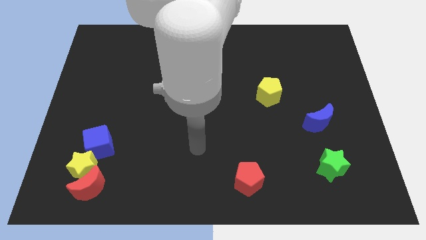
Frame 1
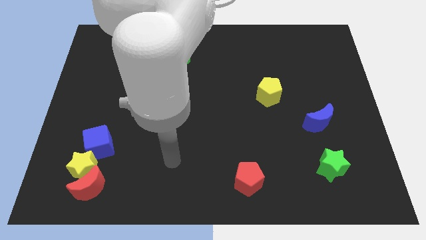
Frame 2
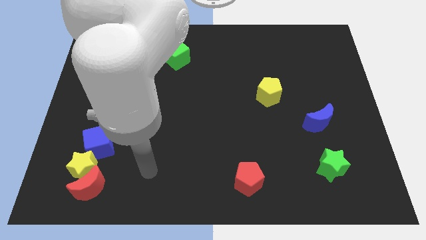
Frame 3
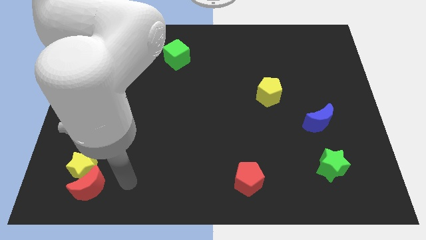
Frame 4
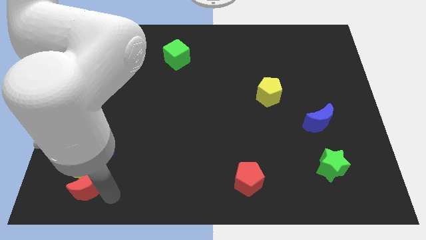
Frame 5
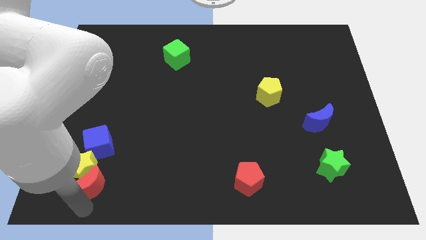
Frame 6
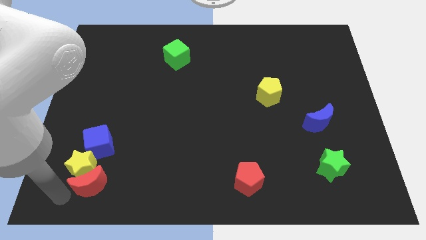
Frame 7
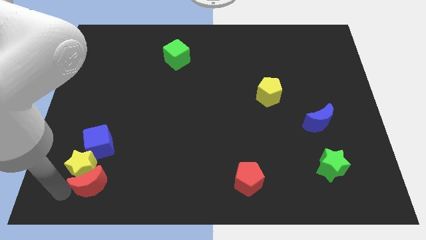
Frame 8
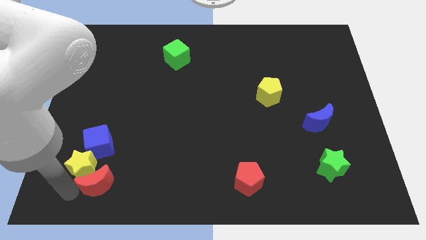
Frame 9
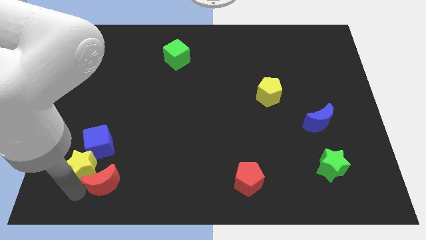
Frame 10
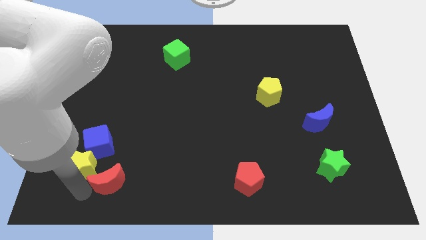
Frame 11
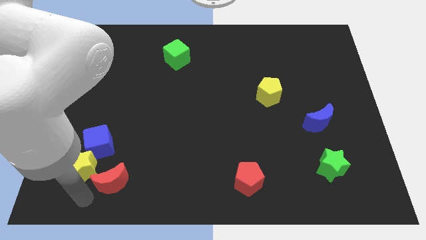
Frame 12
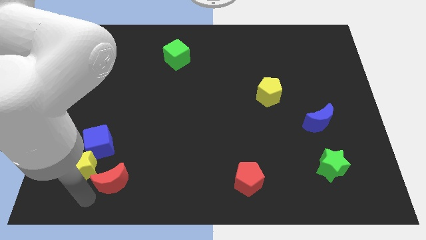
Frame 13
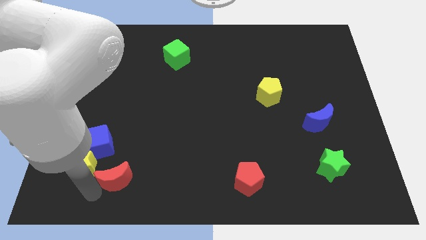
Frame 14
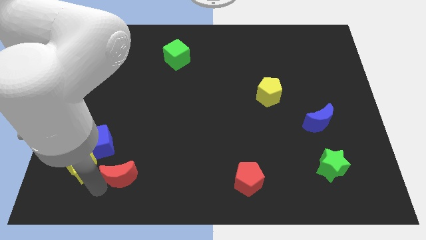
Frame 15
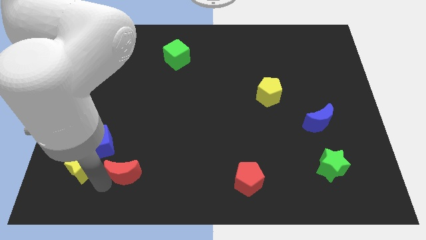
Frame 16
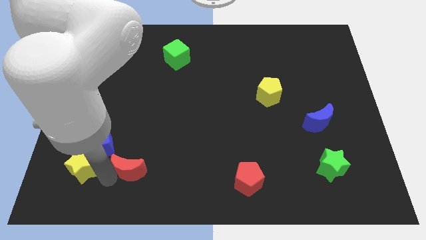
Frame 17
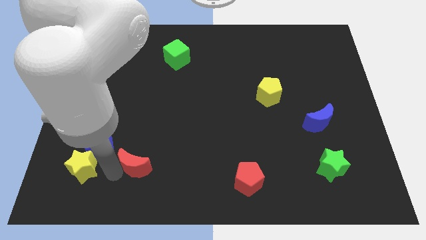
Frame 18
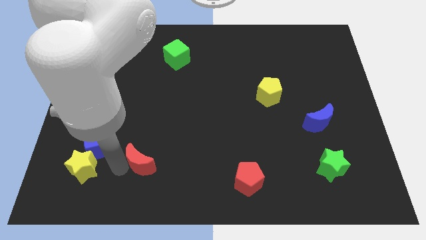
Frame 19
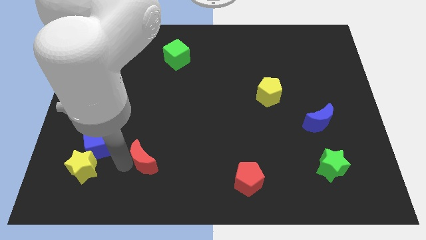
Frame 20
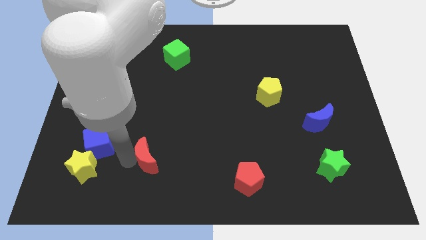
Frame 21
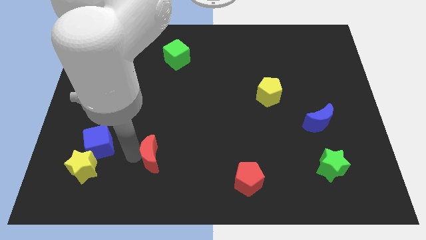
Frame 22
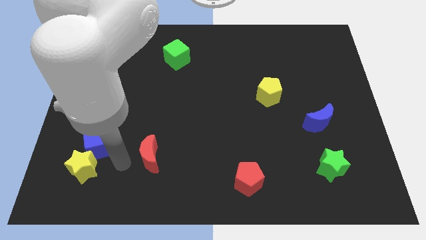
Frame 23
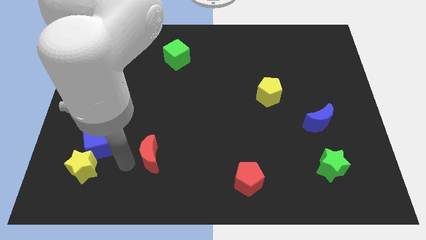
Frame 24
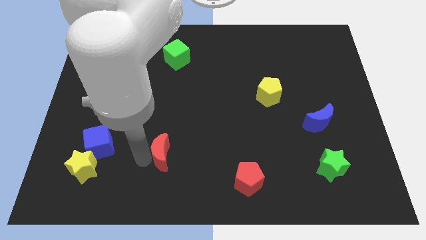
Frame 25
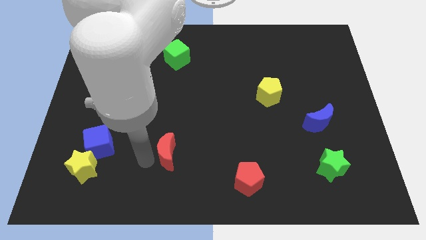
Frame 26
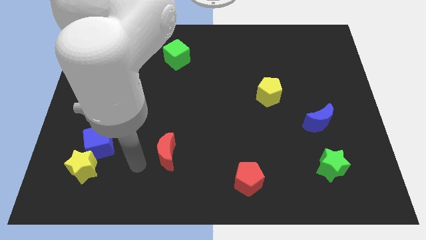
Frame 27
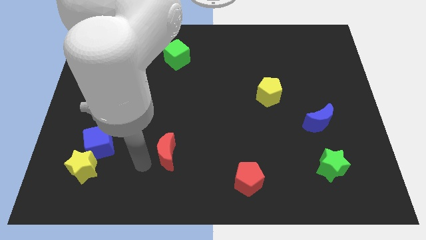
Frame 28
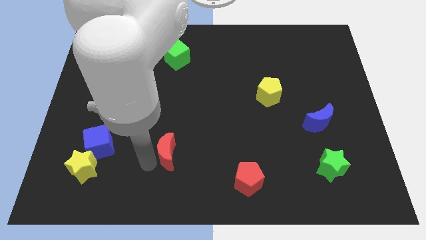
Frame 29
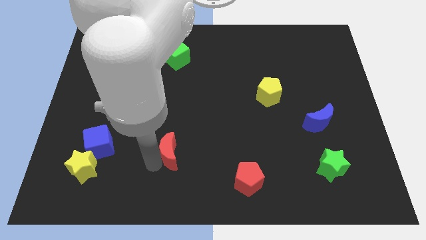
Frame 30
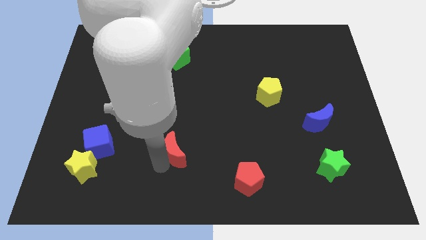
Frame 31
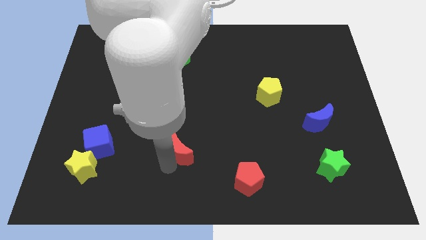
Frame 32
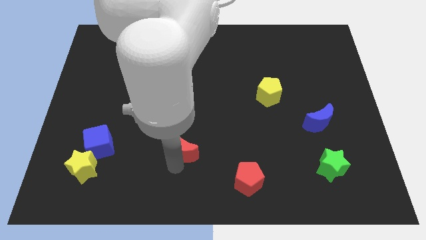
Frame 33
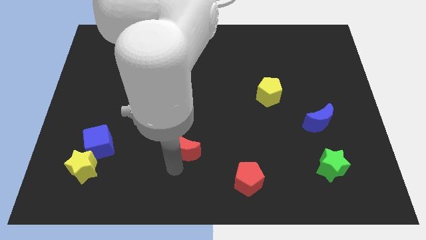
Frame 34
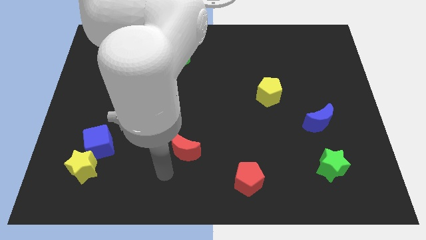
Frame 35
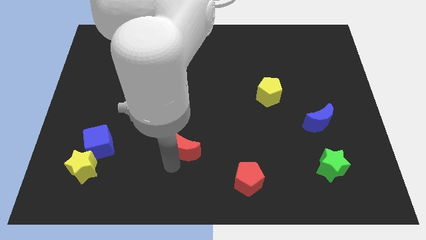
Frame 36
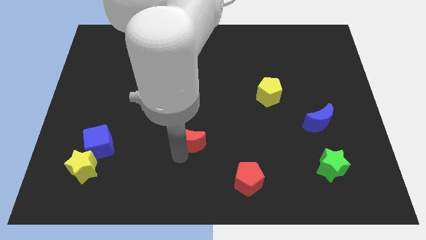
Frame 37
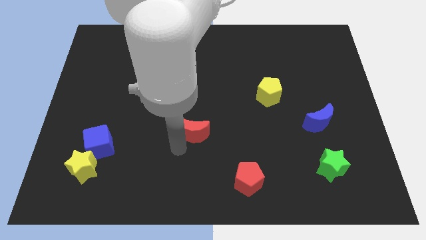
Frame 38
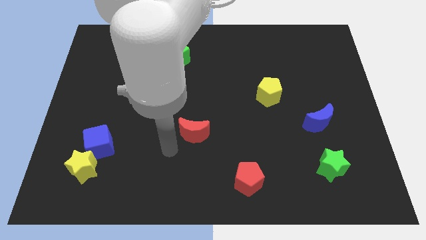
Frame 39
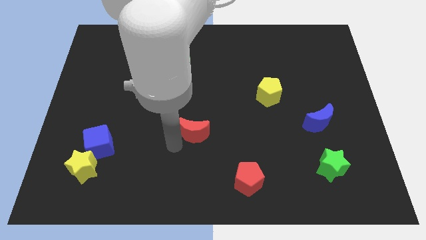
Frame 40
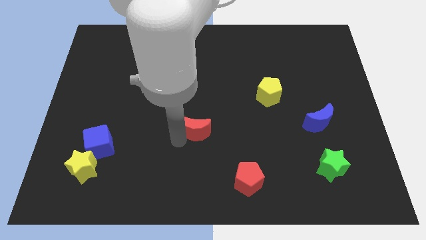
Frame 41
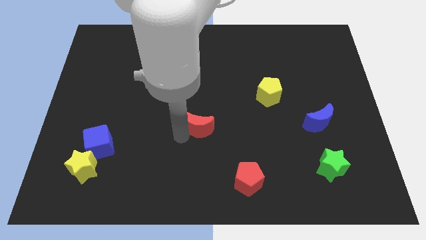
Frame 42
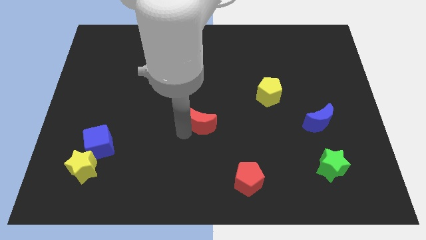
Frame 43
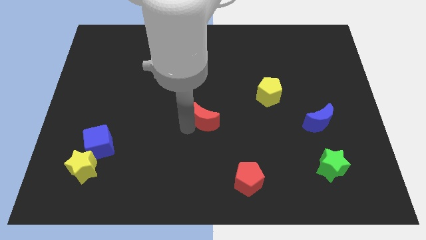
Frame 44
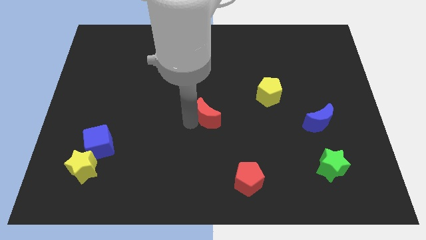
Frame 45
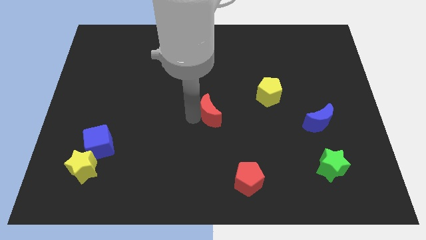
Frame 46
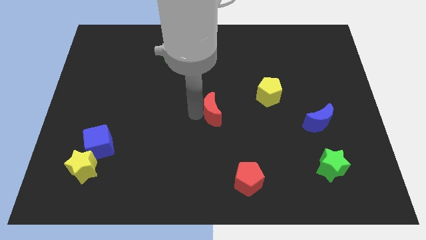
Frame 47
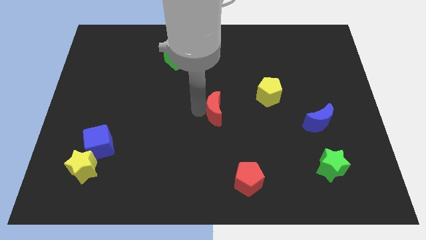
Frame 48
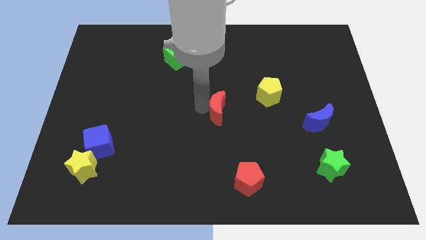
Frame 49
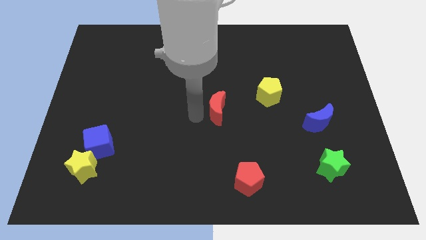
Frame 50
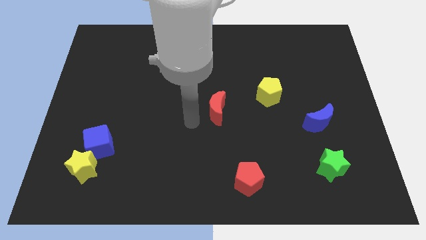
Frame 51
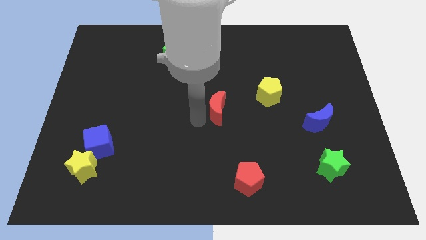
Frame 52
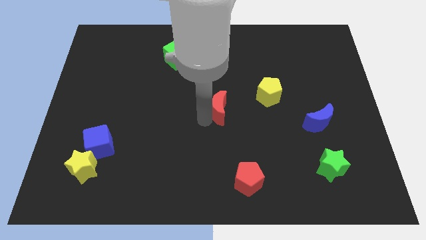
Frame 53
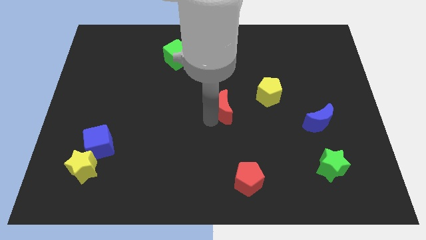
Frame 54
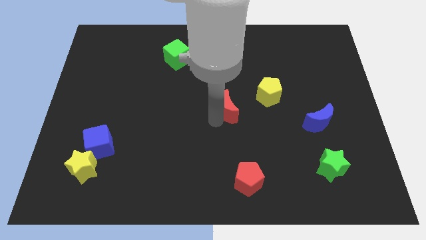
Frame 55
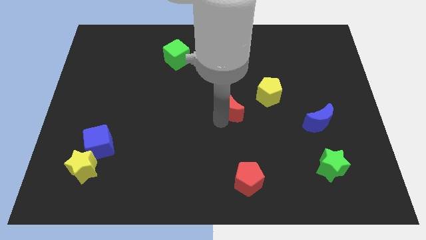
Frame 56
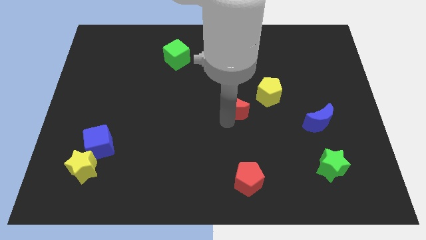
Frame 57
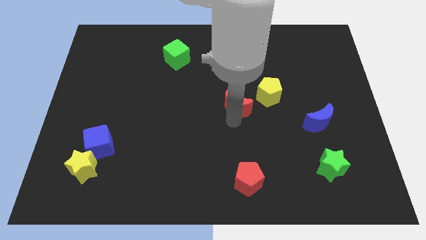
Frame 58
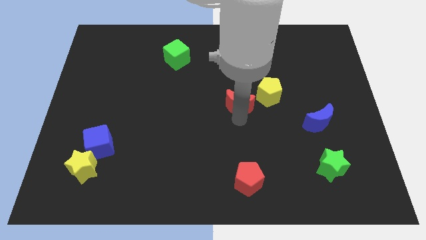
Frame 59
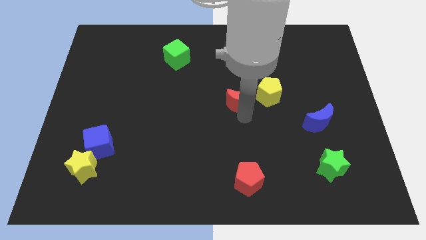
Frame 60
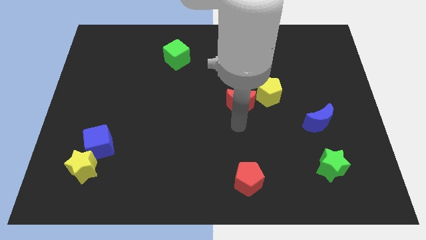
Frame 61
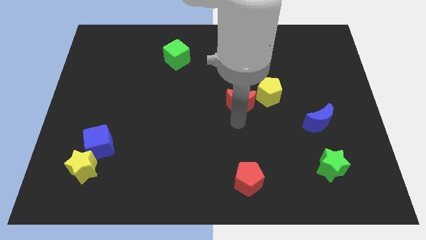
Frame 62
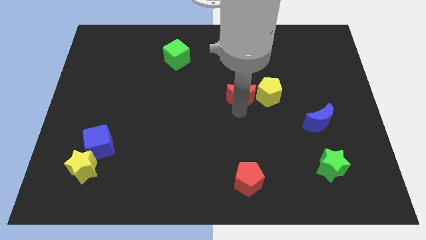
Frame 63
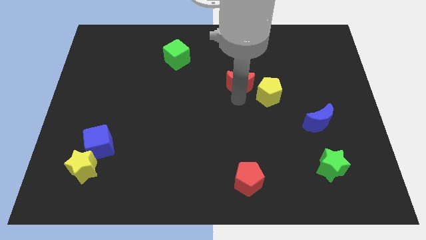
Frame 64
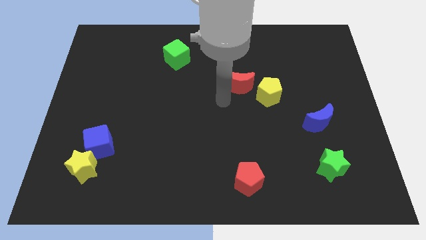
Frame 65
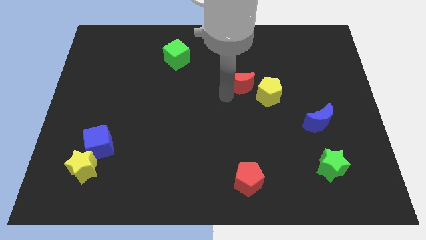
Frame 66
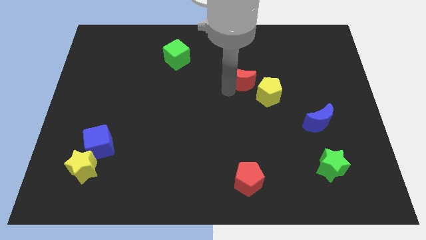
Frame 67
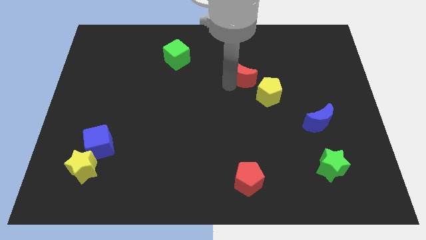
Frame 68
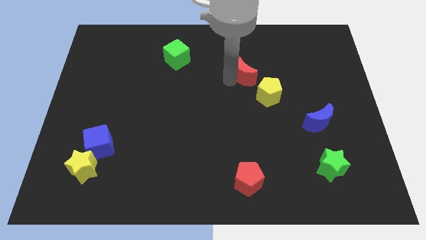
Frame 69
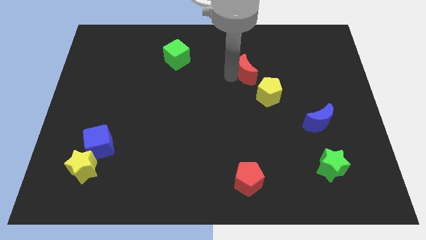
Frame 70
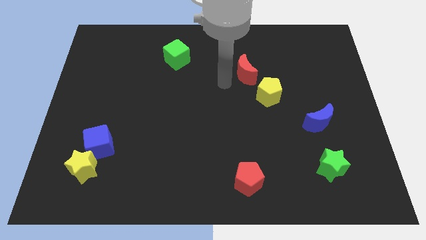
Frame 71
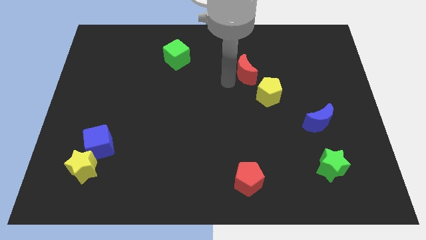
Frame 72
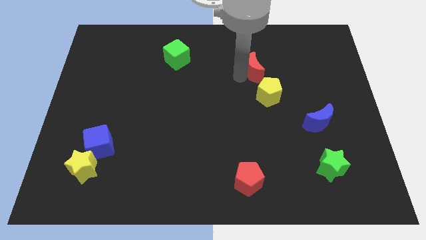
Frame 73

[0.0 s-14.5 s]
slide the red moon above the yellow pentagon
